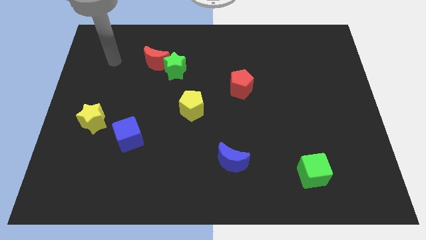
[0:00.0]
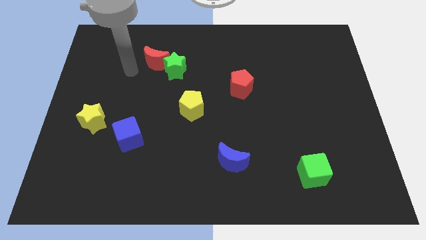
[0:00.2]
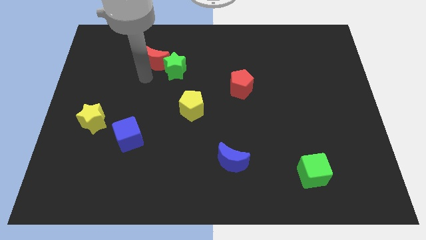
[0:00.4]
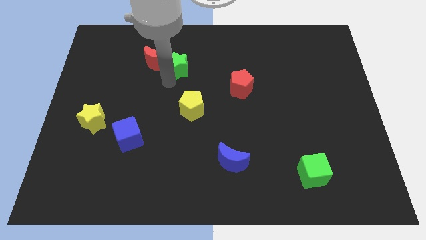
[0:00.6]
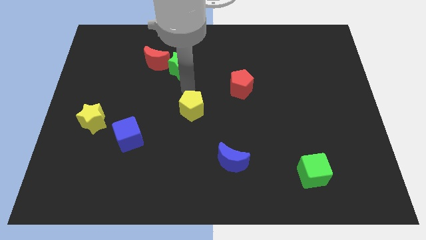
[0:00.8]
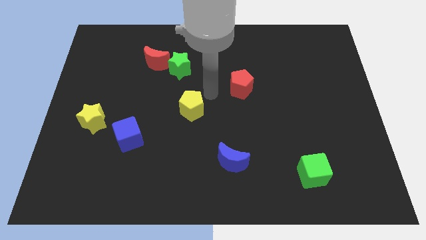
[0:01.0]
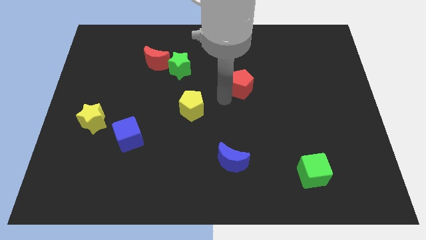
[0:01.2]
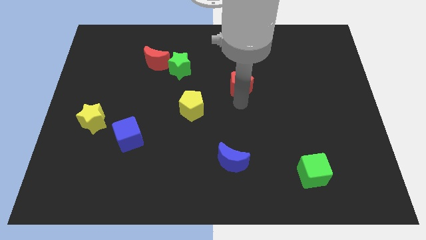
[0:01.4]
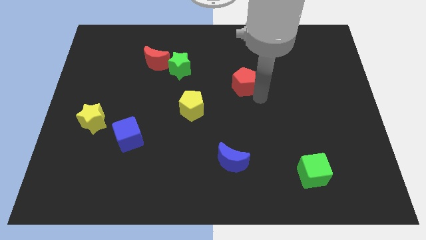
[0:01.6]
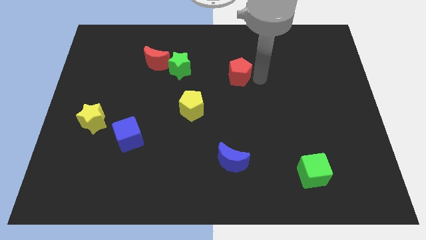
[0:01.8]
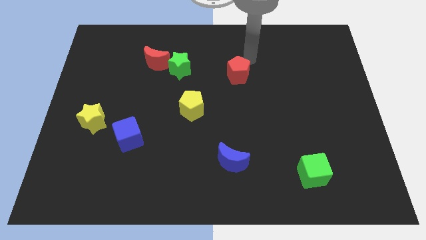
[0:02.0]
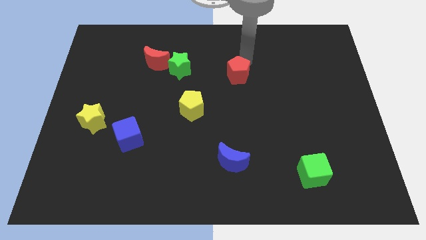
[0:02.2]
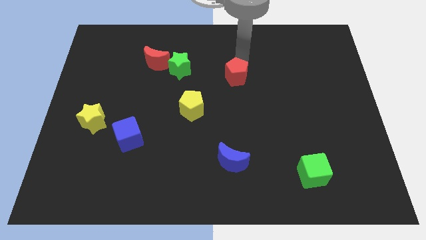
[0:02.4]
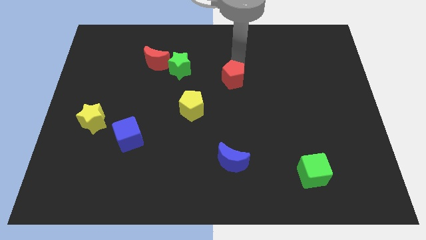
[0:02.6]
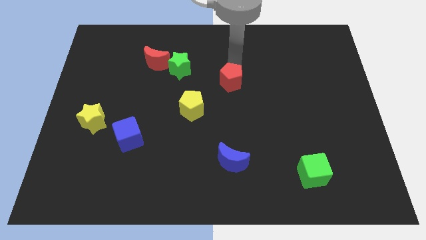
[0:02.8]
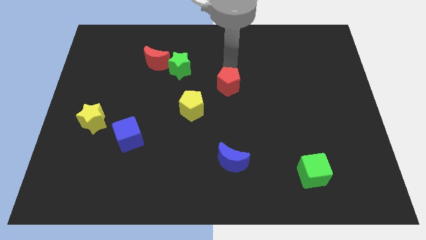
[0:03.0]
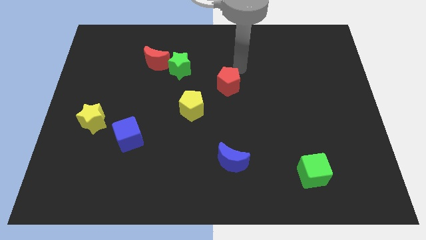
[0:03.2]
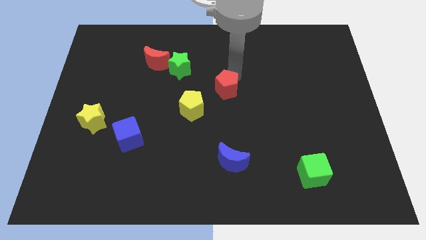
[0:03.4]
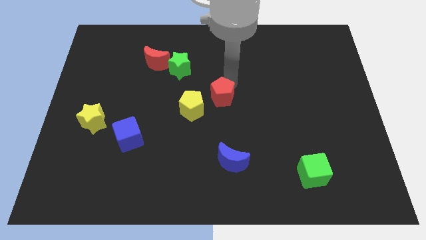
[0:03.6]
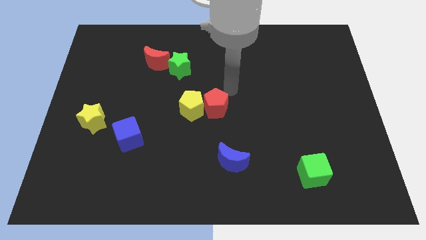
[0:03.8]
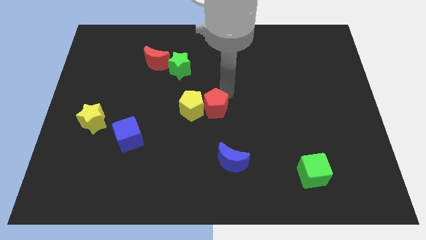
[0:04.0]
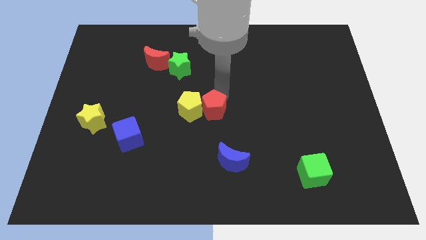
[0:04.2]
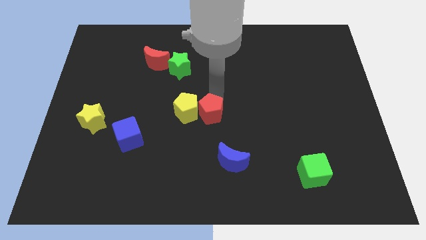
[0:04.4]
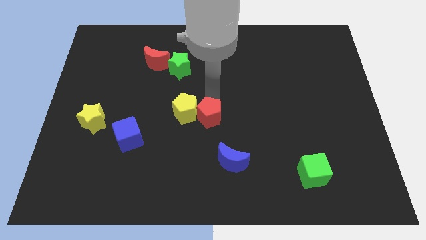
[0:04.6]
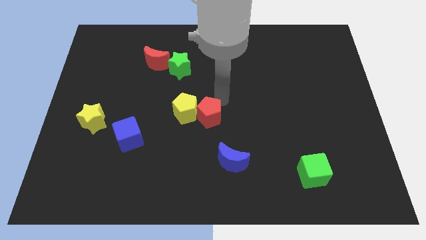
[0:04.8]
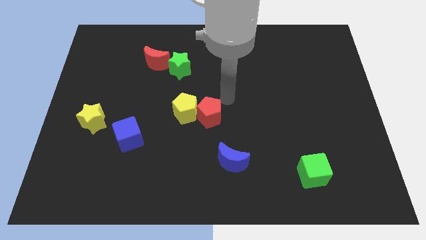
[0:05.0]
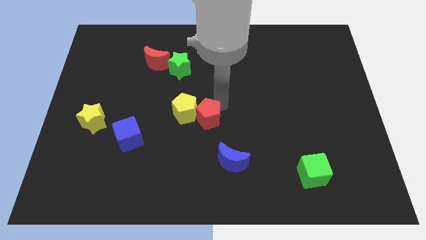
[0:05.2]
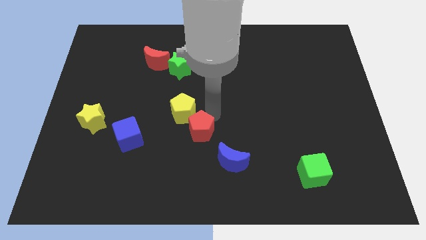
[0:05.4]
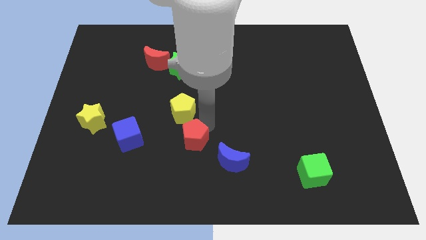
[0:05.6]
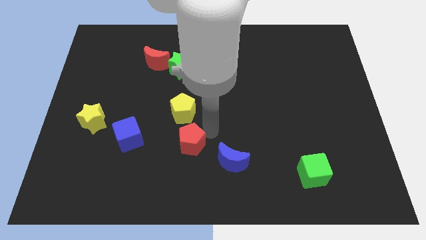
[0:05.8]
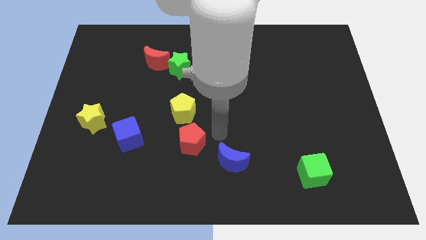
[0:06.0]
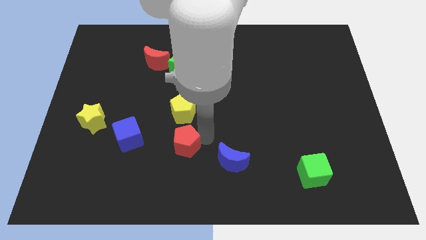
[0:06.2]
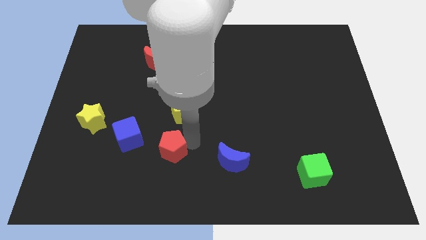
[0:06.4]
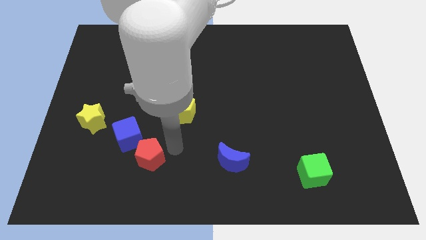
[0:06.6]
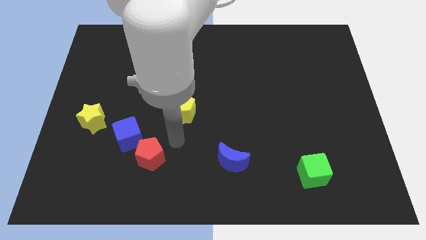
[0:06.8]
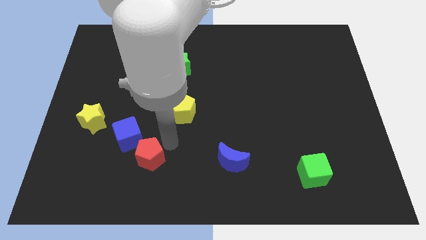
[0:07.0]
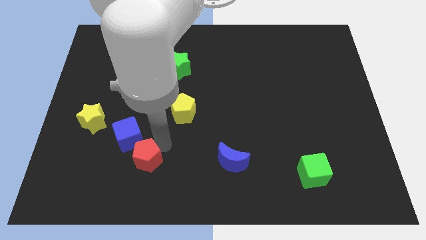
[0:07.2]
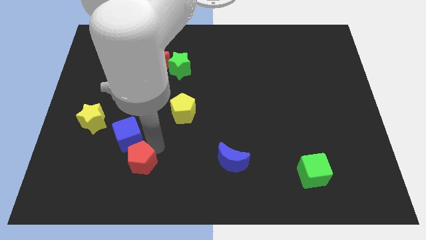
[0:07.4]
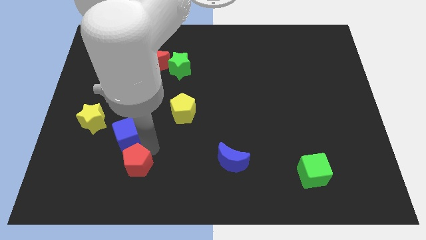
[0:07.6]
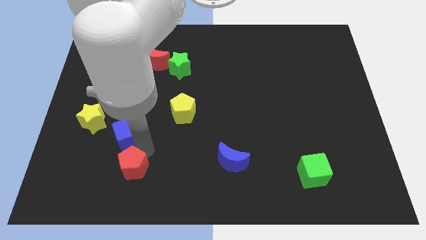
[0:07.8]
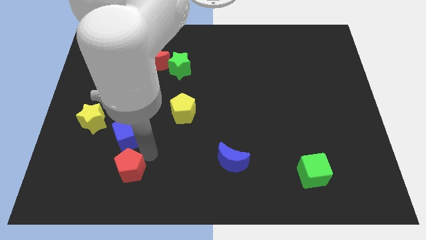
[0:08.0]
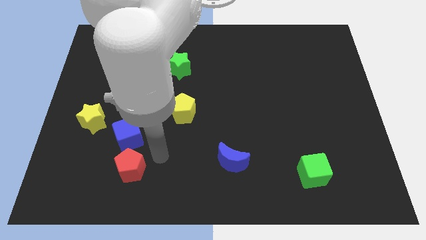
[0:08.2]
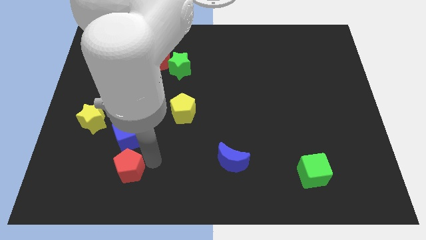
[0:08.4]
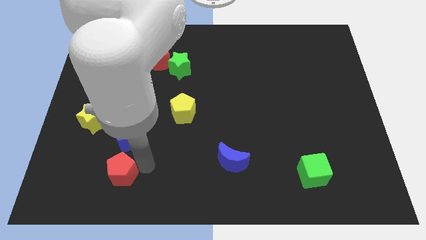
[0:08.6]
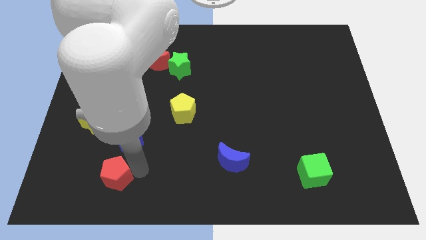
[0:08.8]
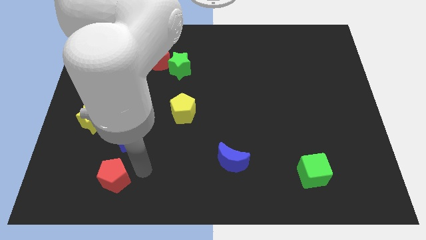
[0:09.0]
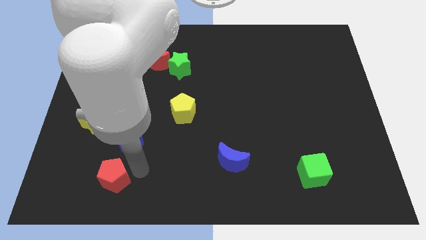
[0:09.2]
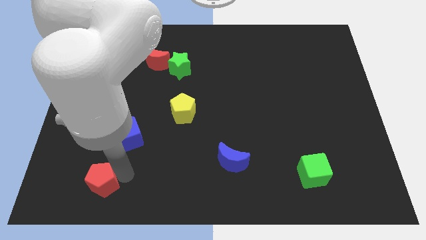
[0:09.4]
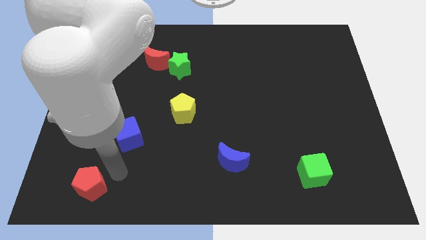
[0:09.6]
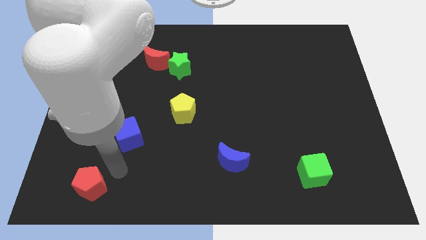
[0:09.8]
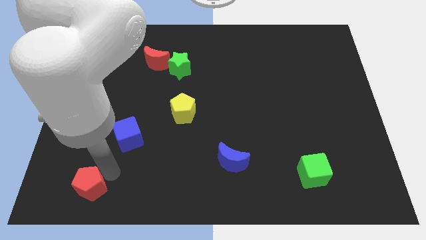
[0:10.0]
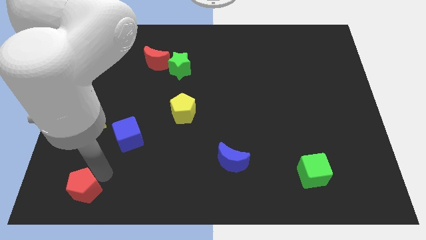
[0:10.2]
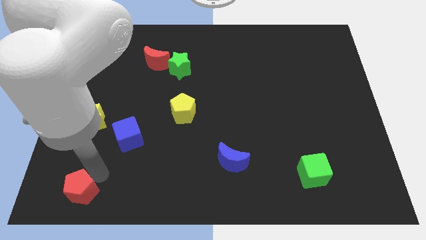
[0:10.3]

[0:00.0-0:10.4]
slide the red pentagon to the bottom left
